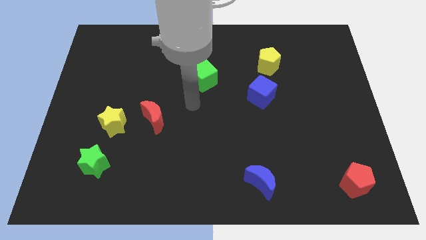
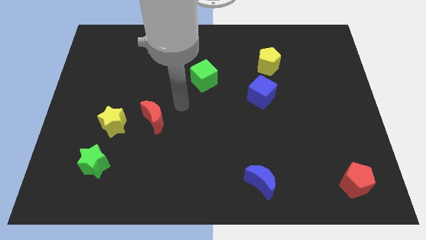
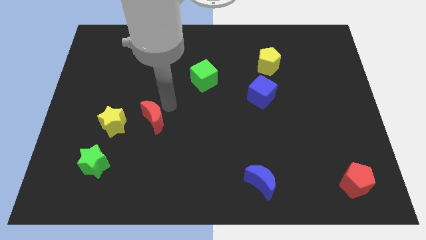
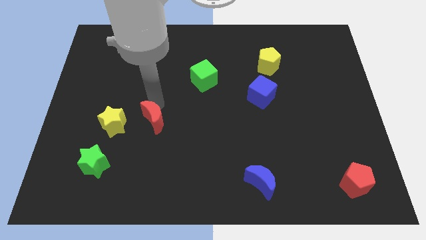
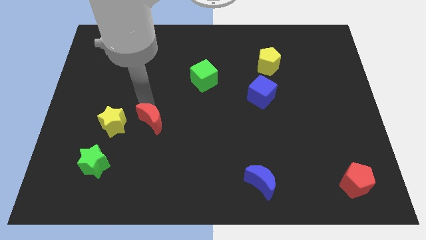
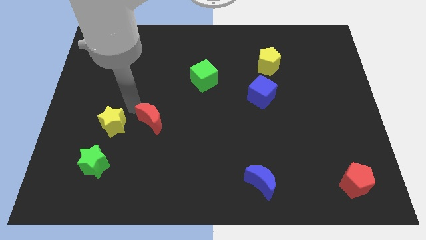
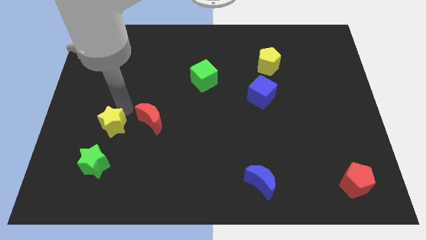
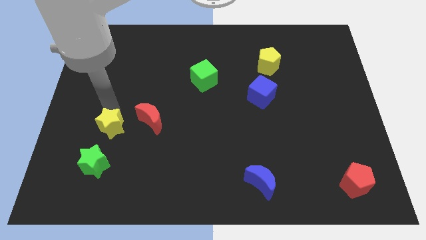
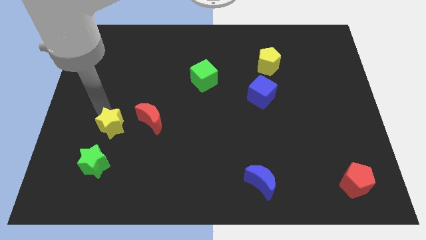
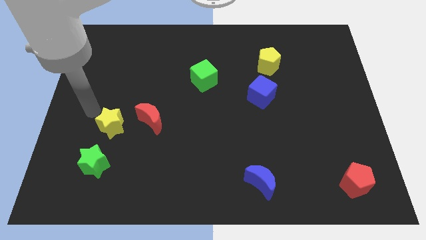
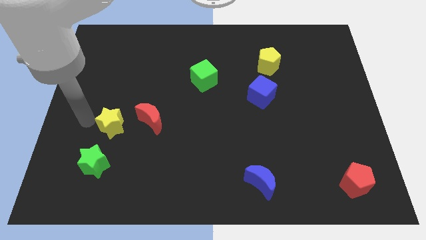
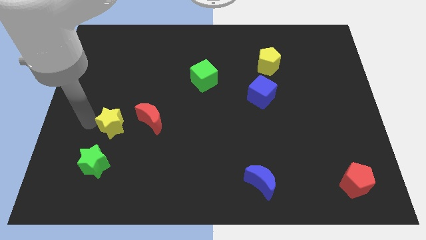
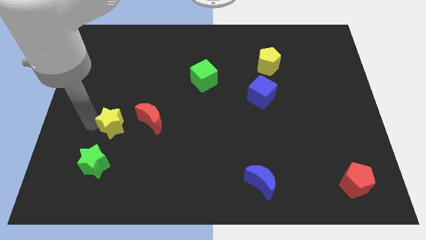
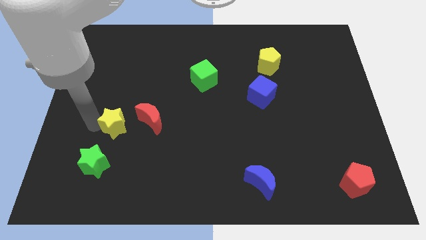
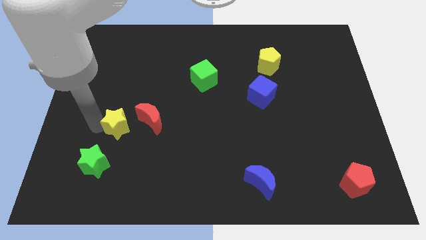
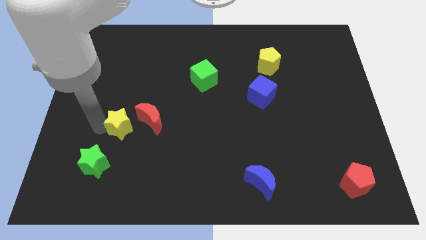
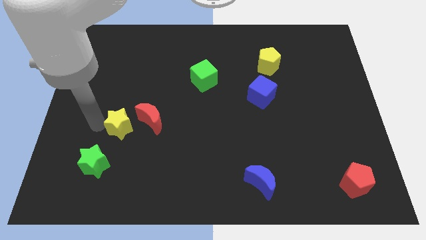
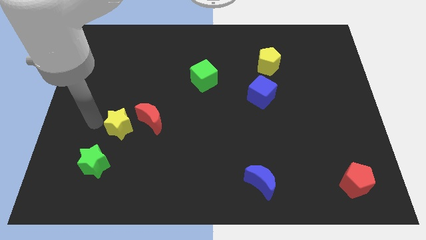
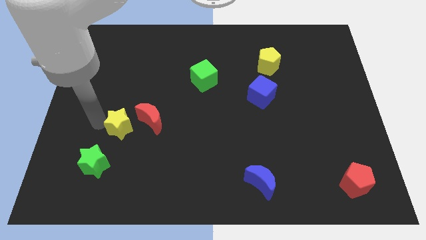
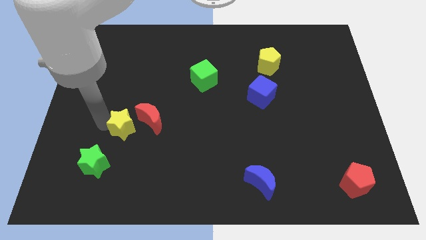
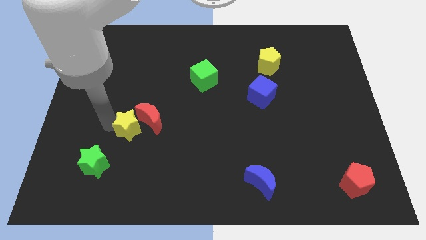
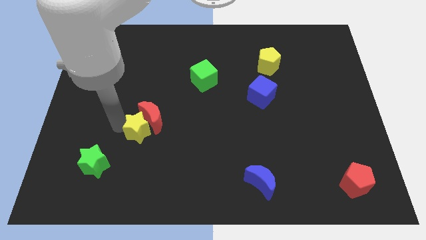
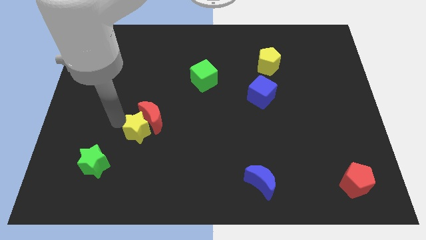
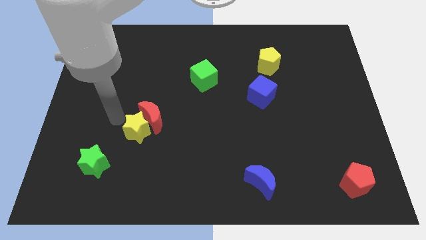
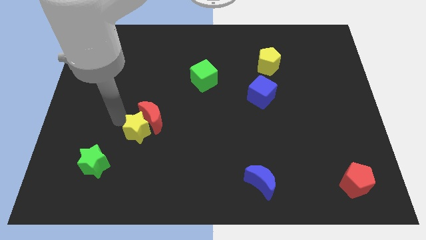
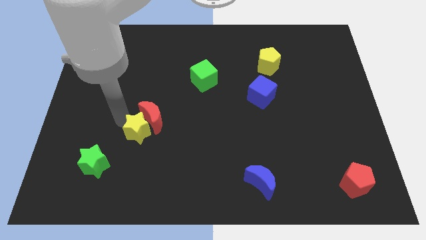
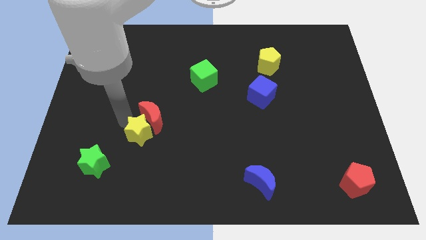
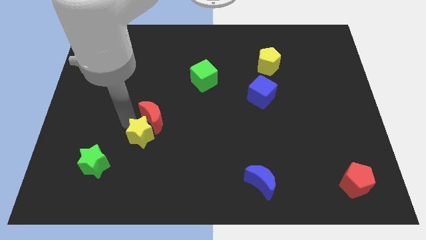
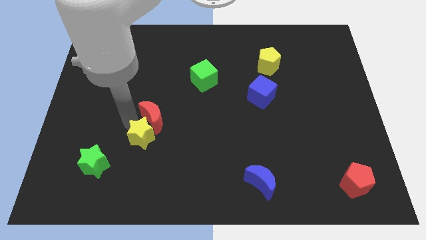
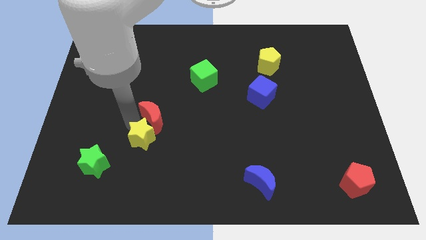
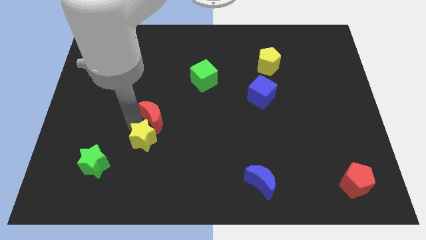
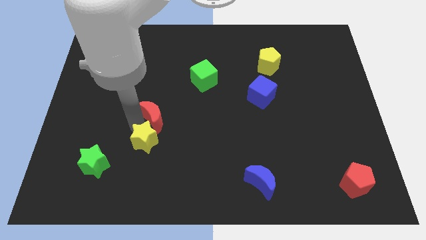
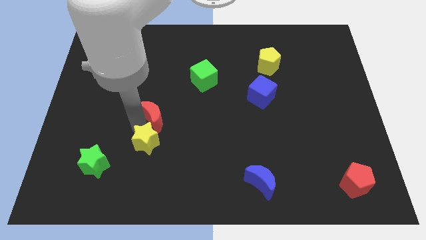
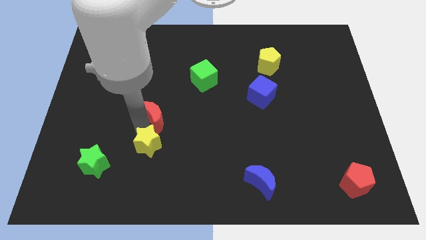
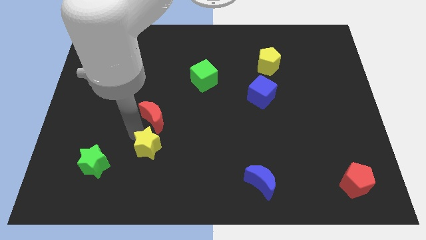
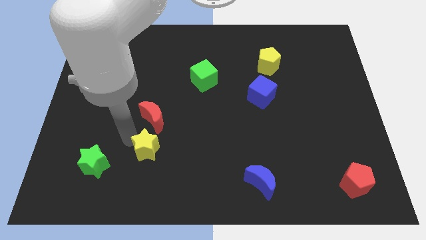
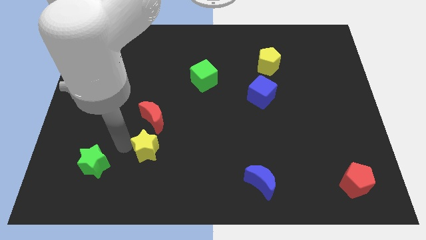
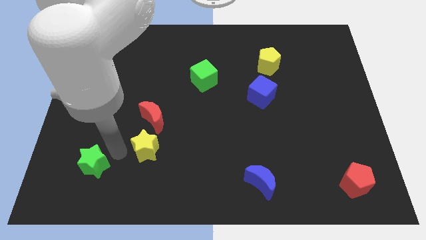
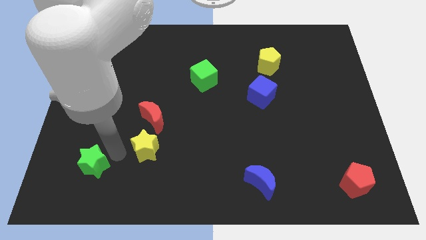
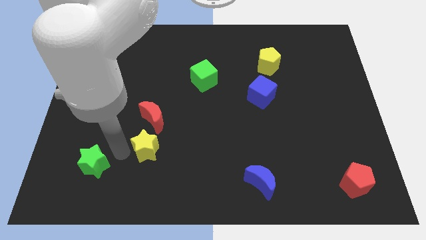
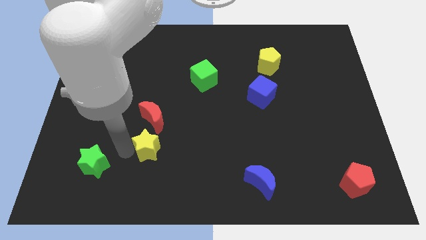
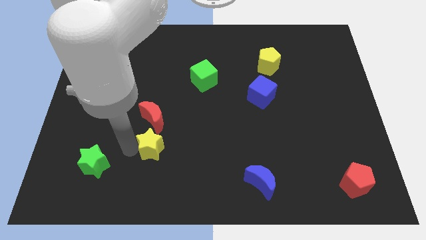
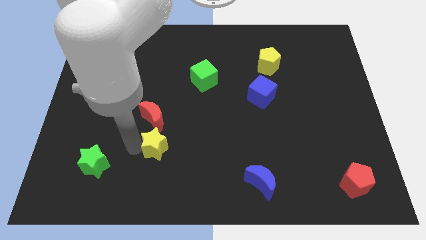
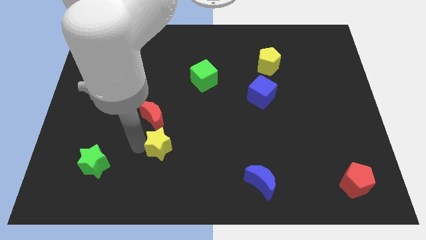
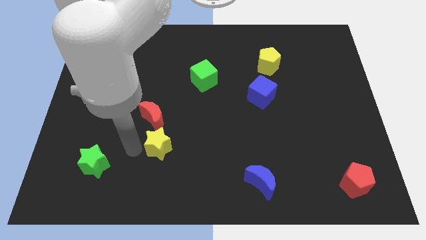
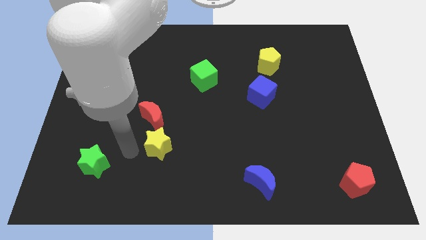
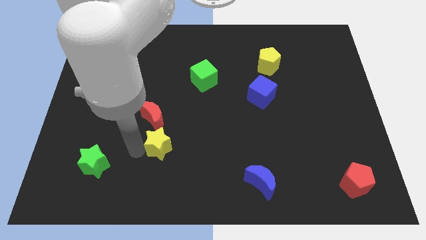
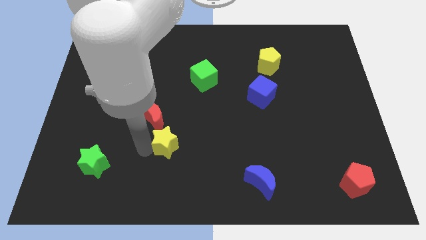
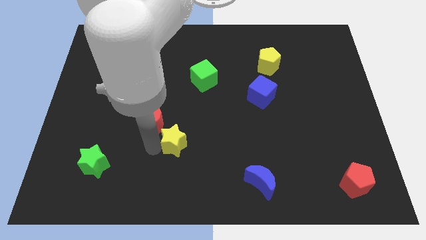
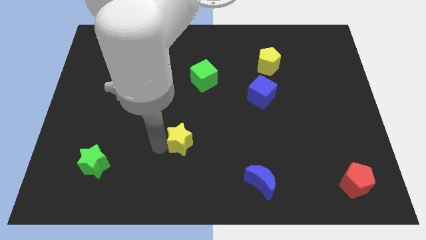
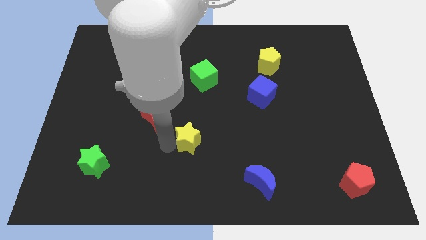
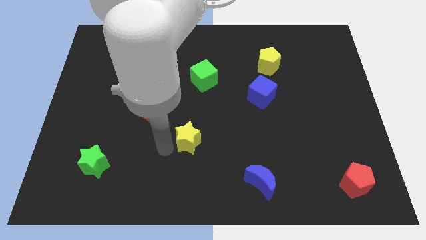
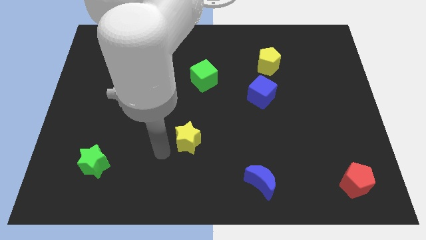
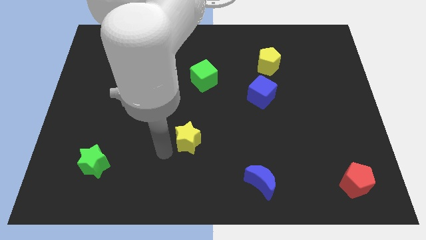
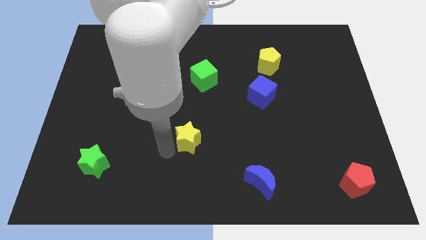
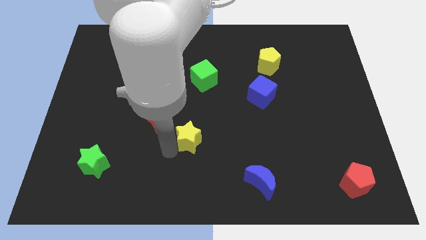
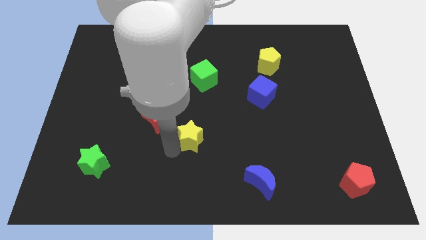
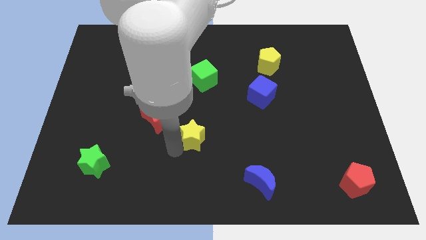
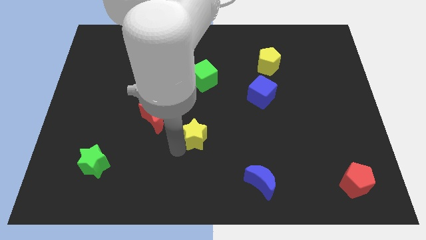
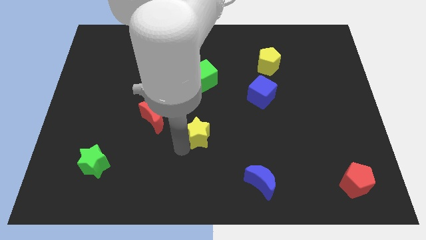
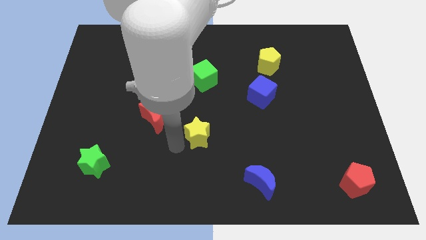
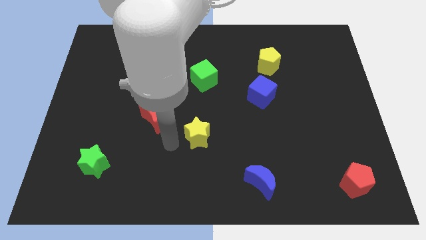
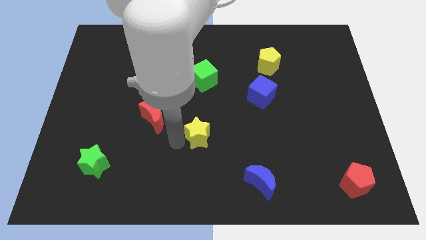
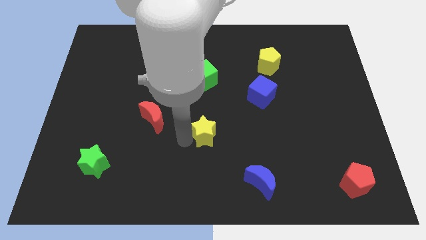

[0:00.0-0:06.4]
push the yellow star to the right

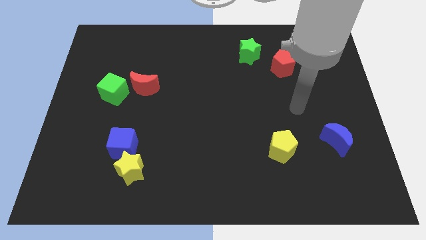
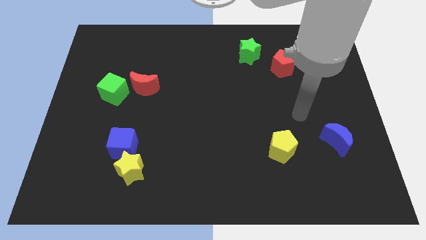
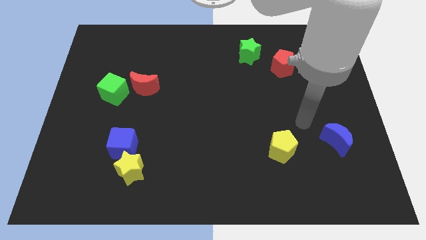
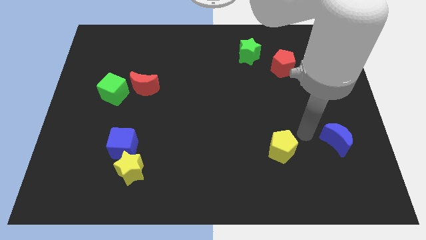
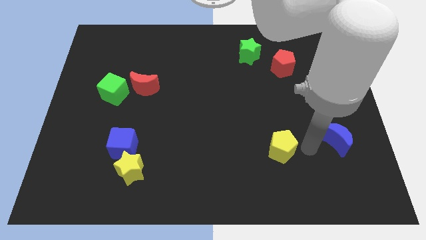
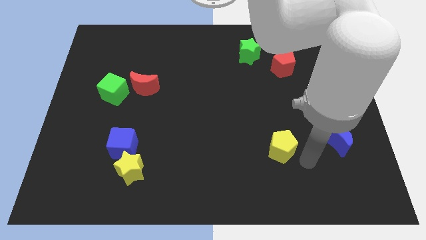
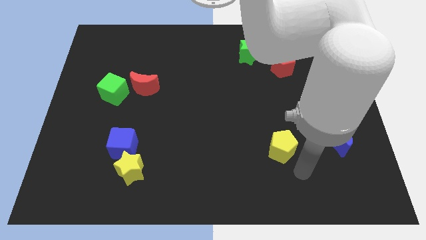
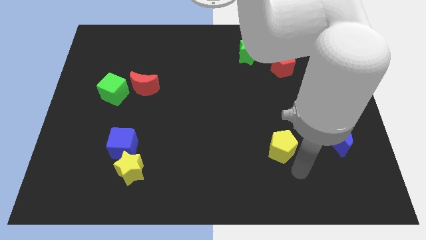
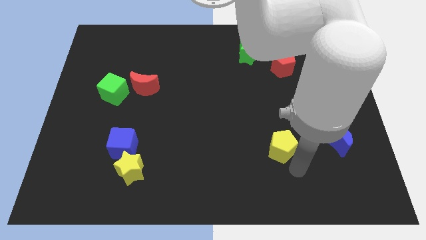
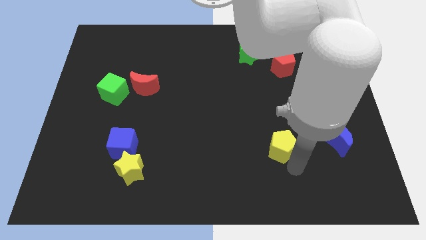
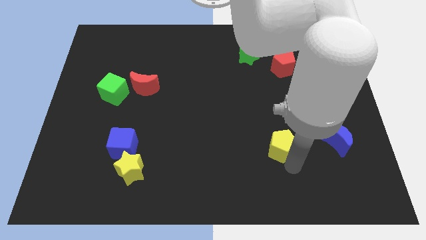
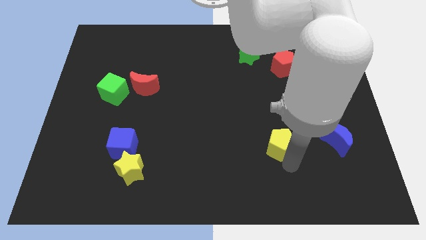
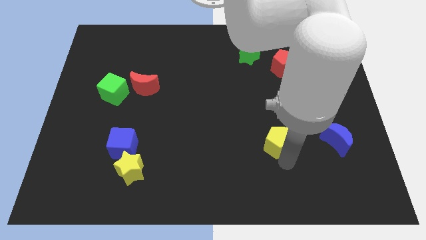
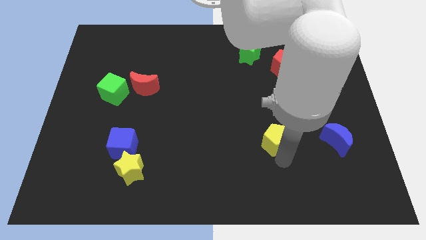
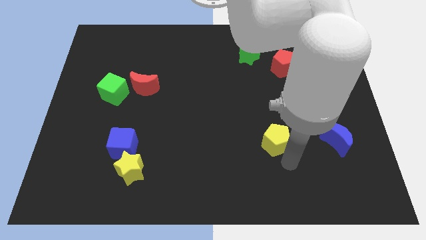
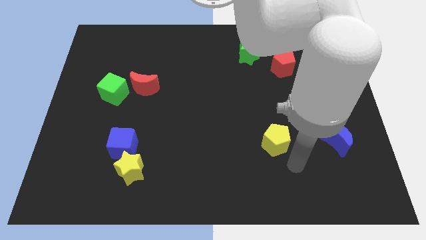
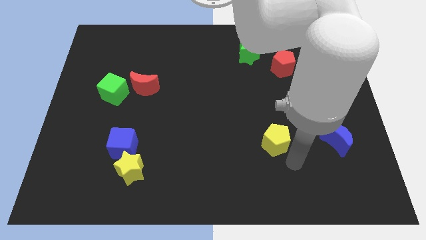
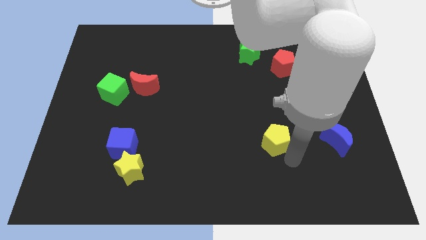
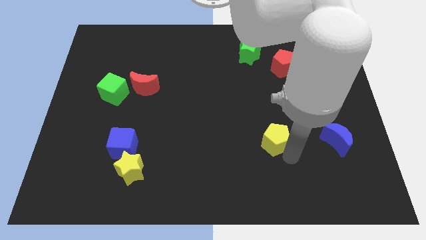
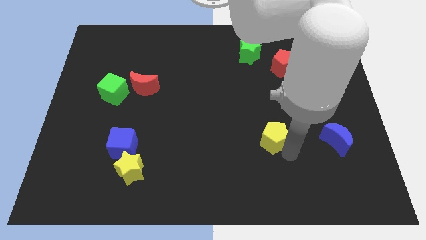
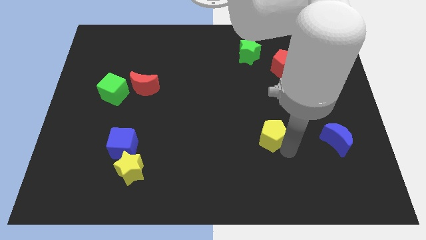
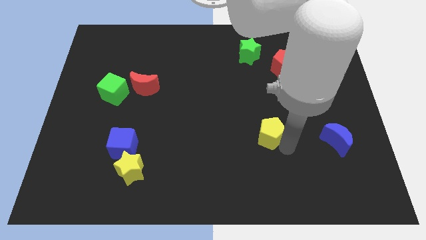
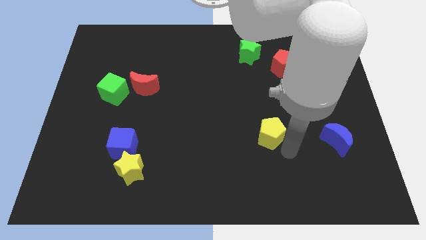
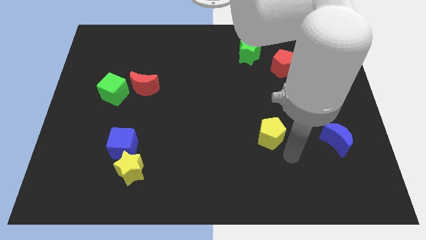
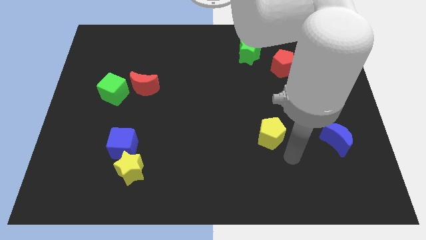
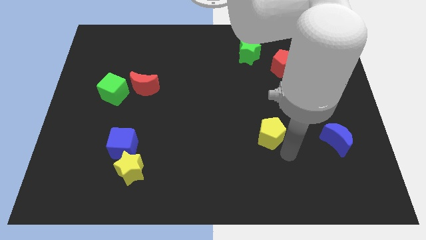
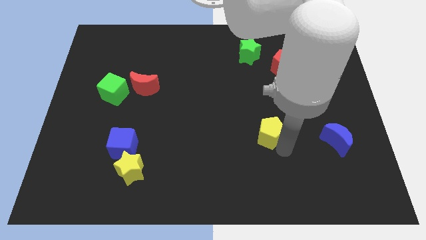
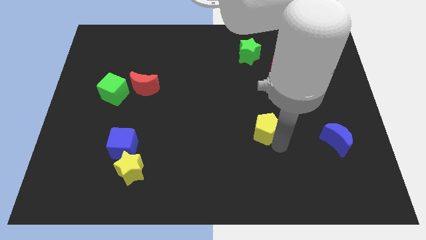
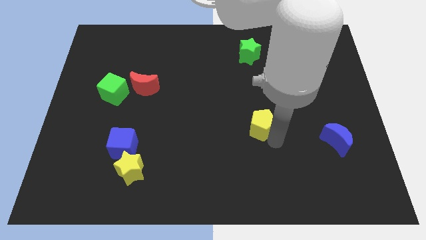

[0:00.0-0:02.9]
move the yellow pentagon upwards and to the left a little
